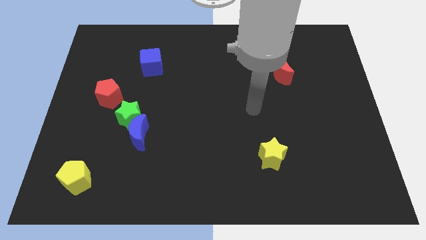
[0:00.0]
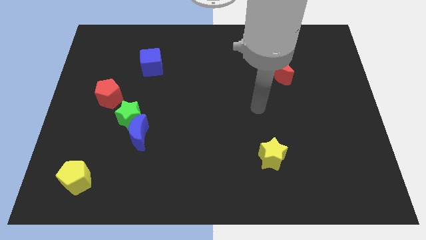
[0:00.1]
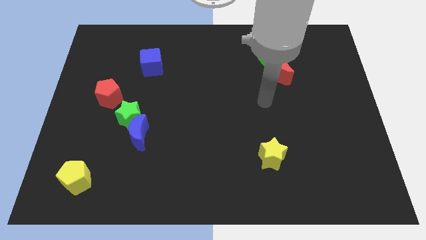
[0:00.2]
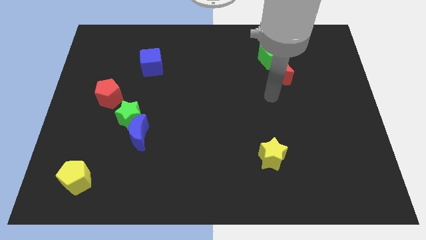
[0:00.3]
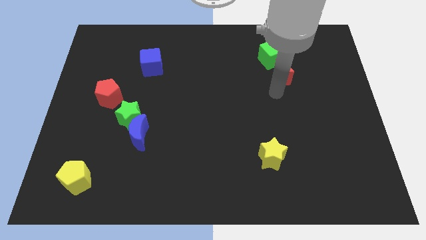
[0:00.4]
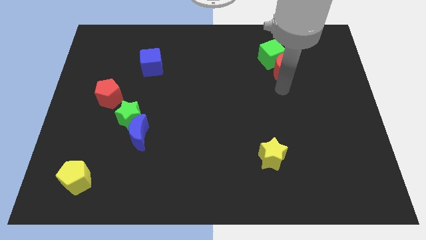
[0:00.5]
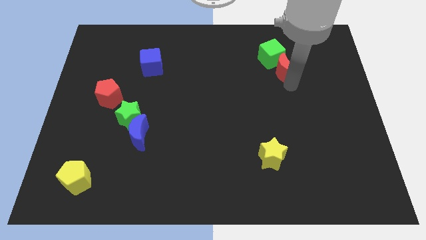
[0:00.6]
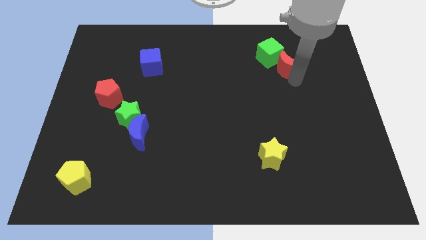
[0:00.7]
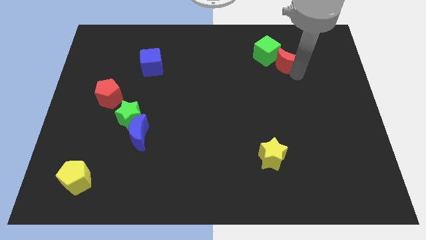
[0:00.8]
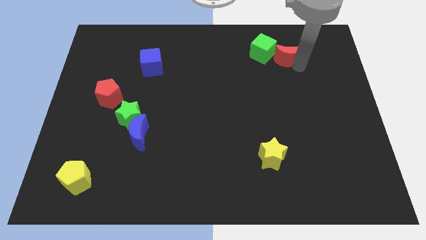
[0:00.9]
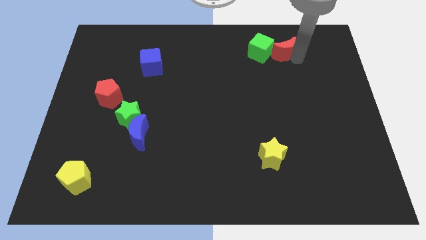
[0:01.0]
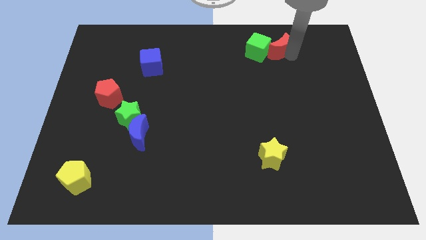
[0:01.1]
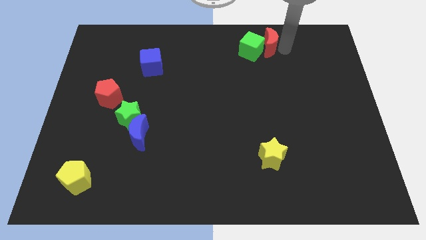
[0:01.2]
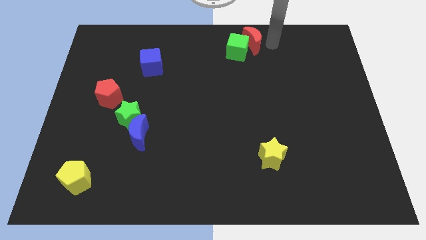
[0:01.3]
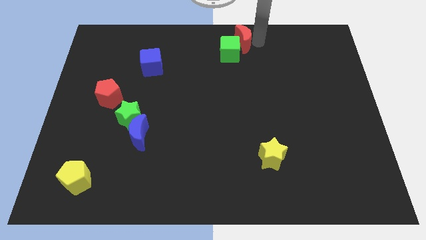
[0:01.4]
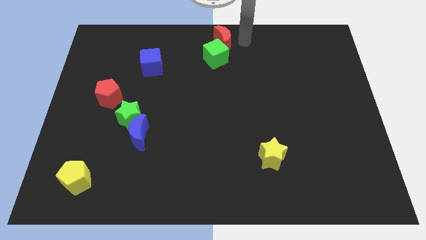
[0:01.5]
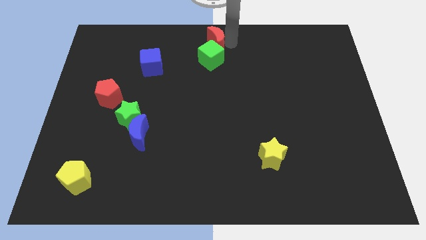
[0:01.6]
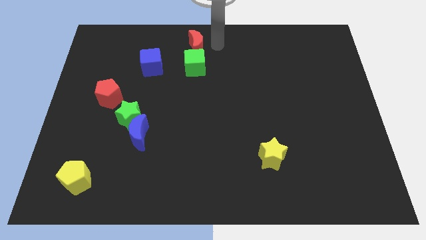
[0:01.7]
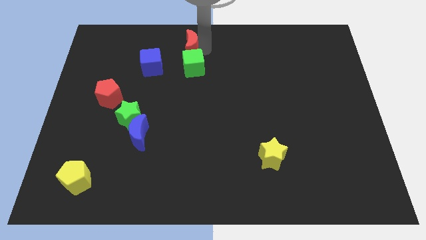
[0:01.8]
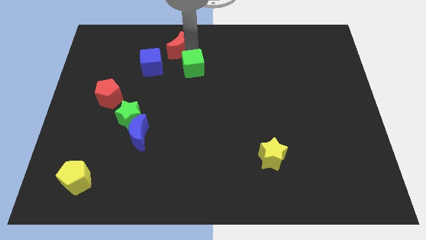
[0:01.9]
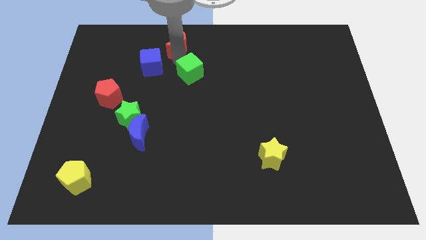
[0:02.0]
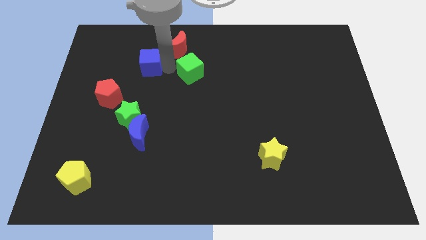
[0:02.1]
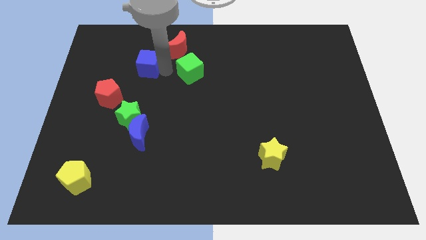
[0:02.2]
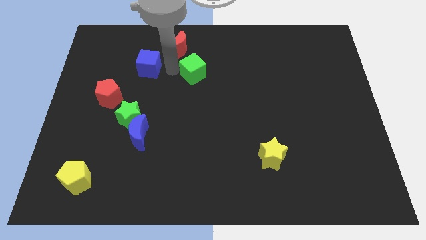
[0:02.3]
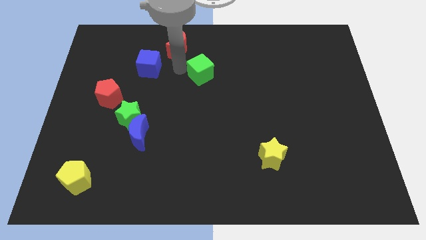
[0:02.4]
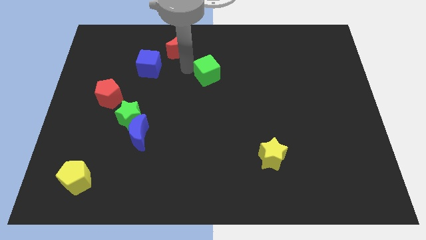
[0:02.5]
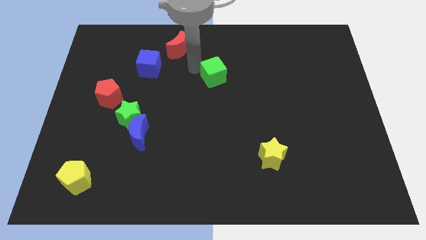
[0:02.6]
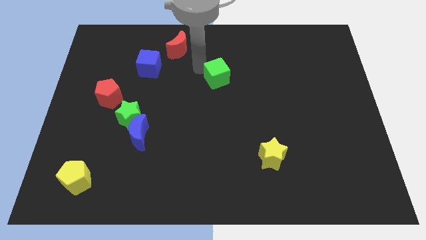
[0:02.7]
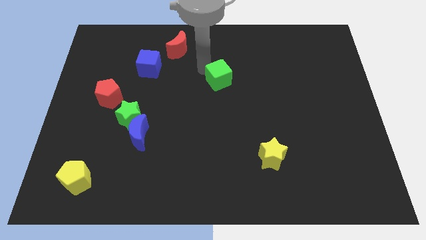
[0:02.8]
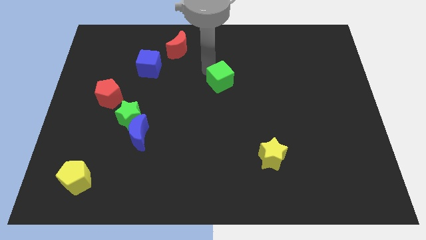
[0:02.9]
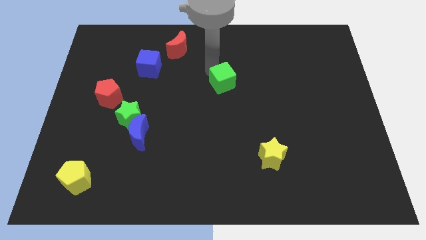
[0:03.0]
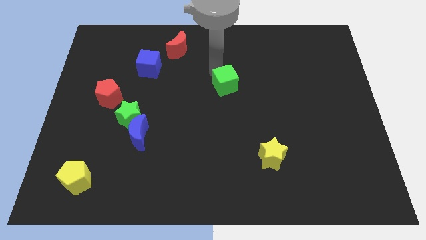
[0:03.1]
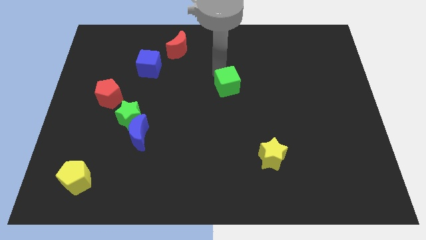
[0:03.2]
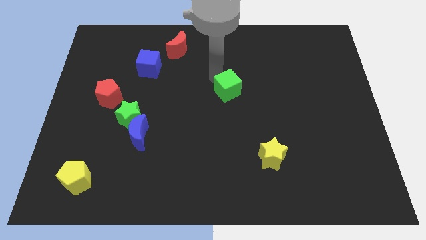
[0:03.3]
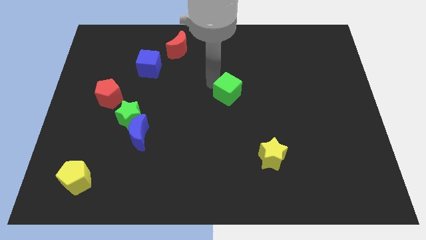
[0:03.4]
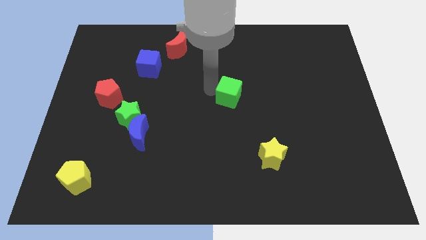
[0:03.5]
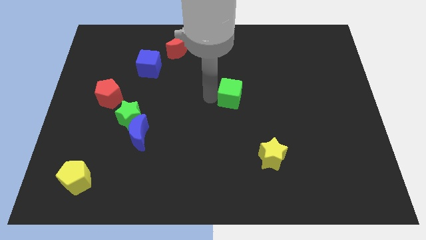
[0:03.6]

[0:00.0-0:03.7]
push the green cube down a bit

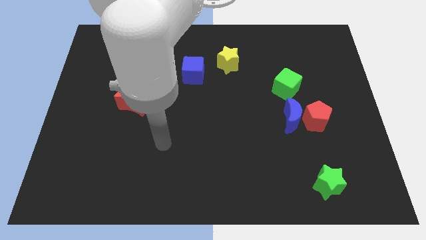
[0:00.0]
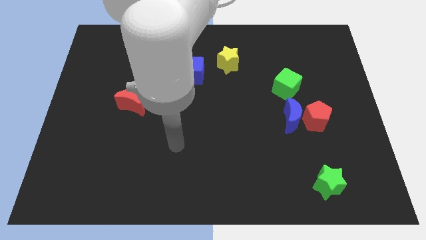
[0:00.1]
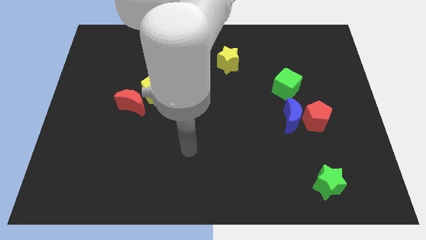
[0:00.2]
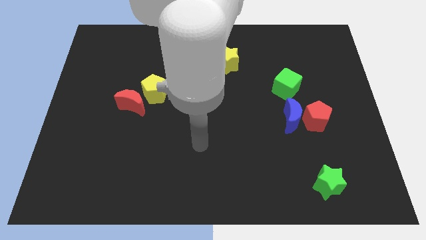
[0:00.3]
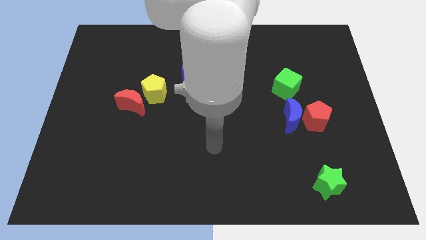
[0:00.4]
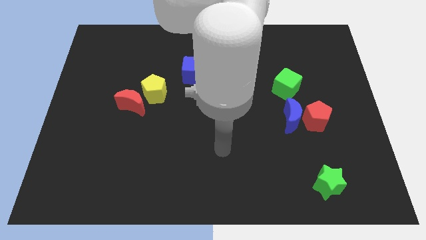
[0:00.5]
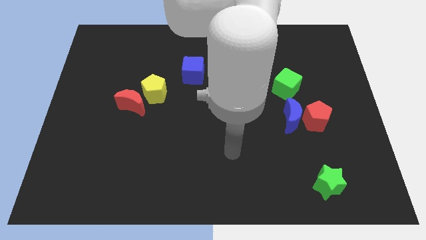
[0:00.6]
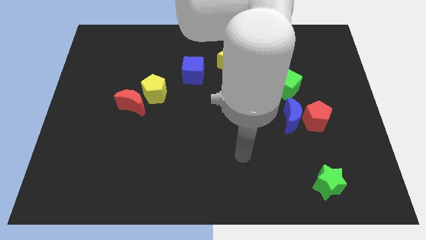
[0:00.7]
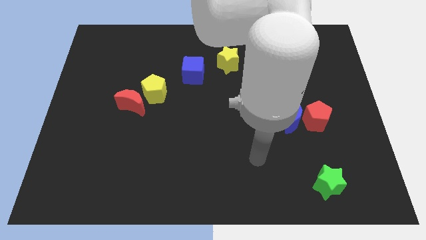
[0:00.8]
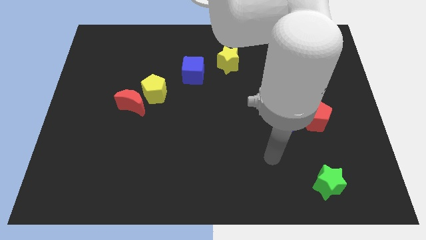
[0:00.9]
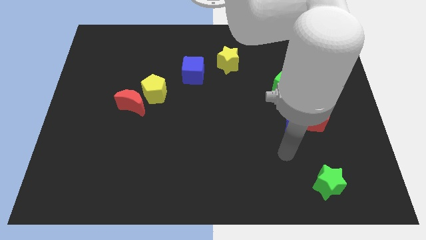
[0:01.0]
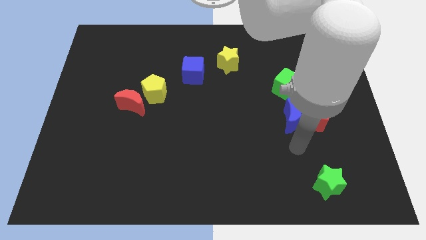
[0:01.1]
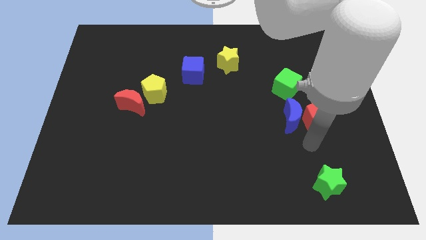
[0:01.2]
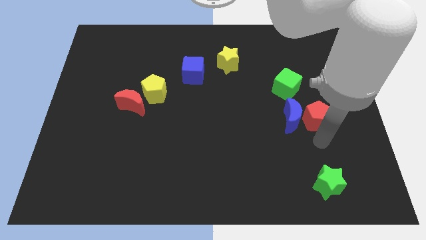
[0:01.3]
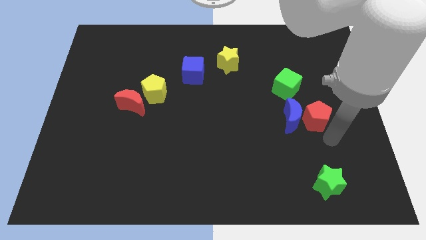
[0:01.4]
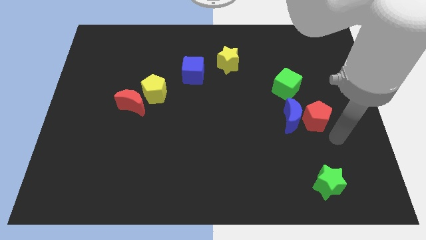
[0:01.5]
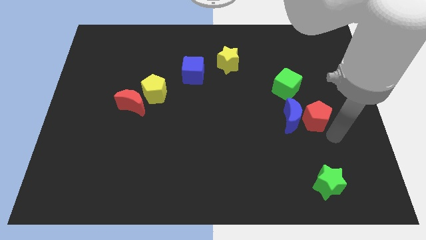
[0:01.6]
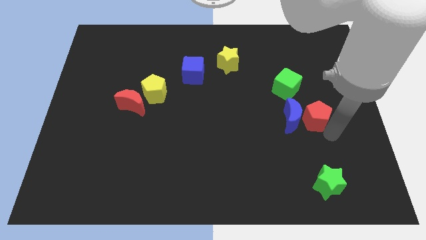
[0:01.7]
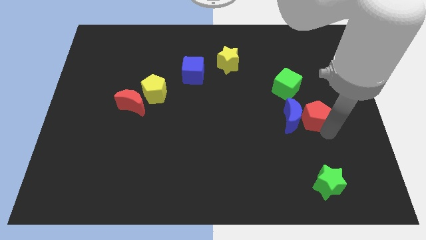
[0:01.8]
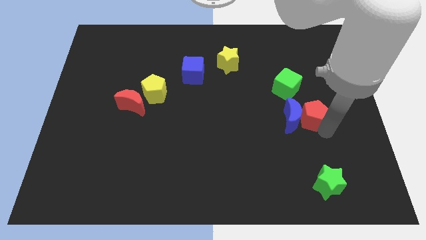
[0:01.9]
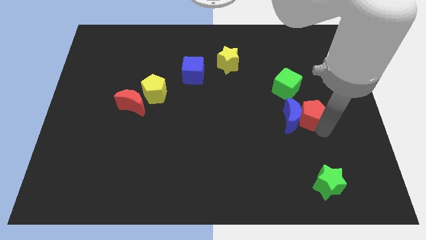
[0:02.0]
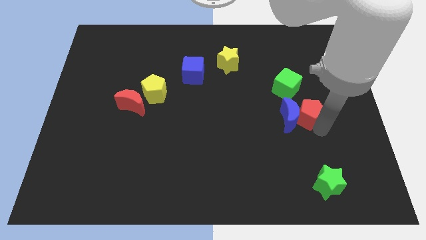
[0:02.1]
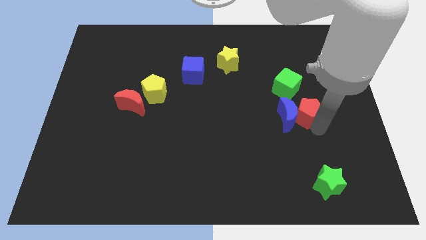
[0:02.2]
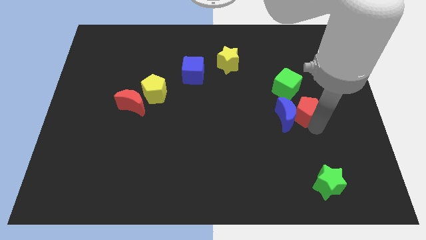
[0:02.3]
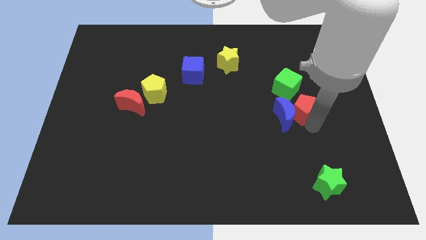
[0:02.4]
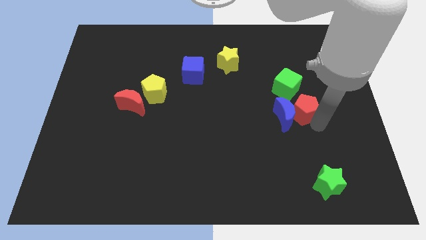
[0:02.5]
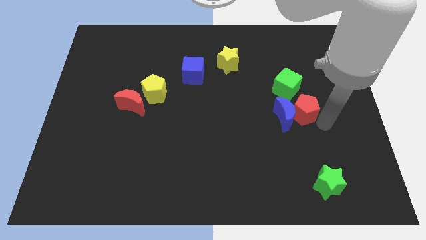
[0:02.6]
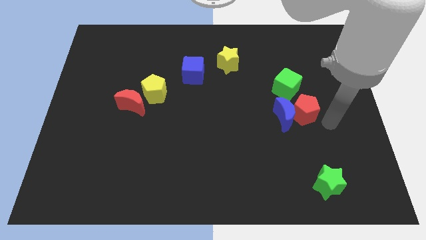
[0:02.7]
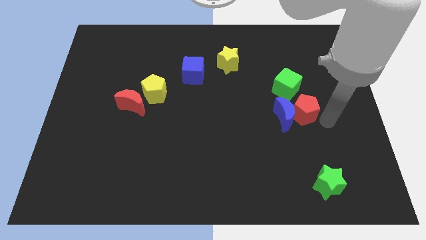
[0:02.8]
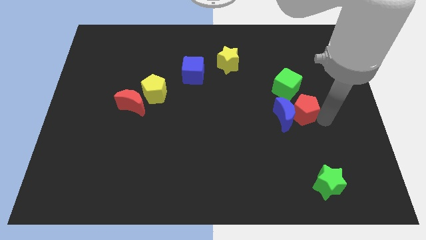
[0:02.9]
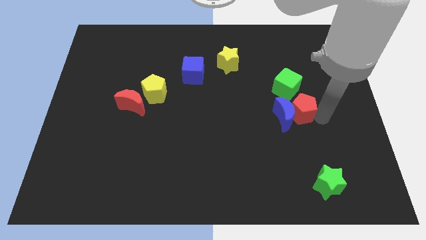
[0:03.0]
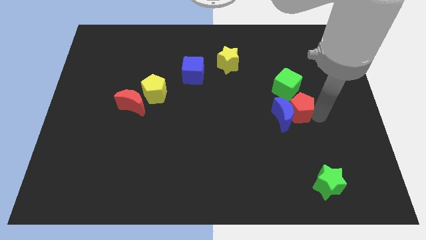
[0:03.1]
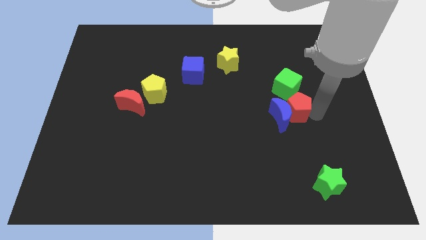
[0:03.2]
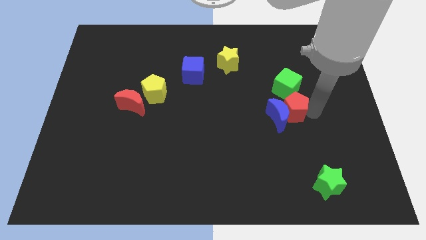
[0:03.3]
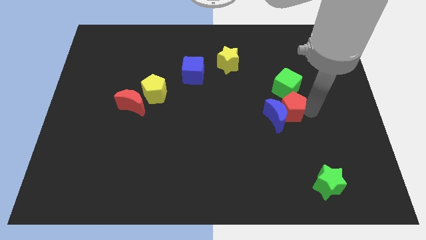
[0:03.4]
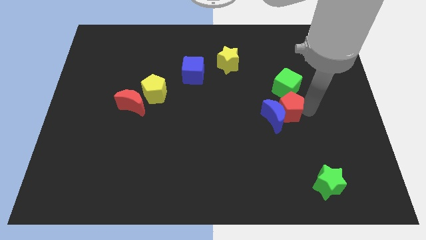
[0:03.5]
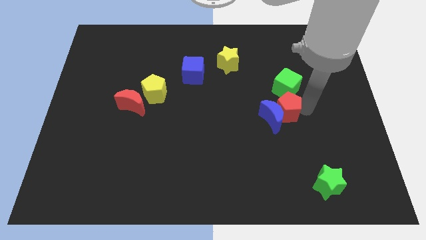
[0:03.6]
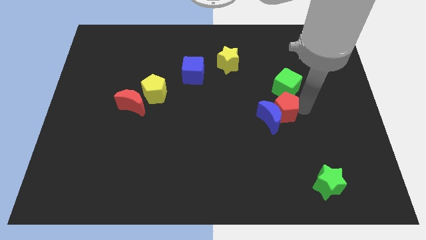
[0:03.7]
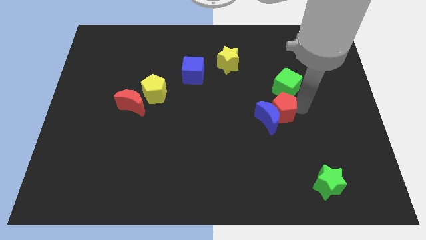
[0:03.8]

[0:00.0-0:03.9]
push the red pentagon a little upwards and then to the left

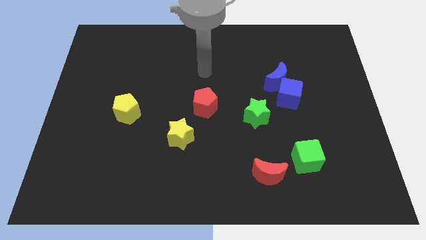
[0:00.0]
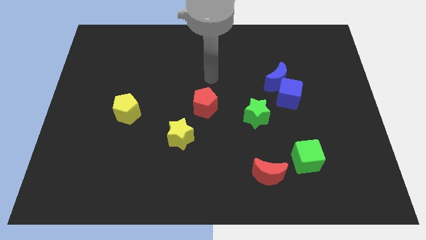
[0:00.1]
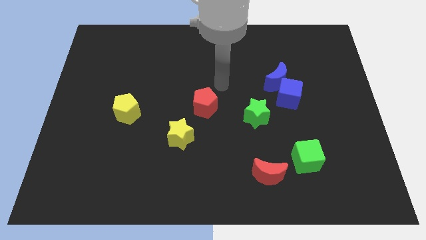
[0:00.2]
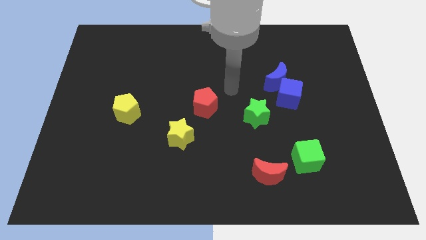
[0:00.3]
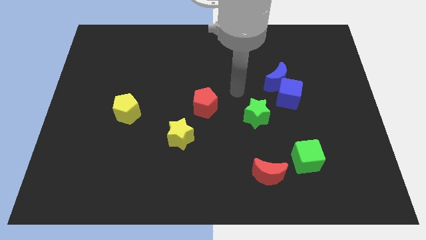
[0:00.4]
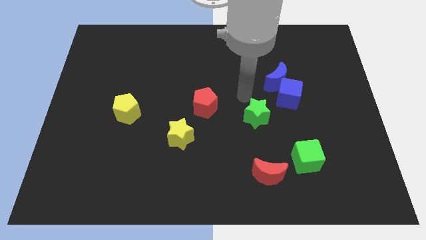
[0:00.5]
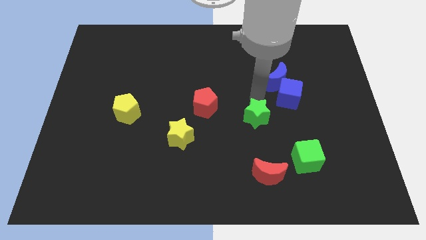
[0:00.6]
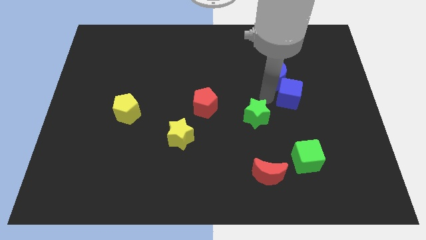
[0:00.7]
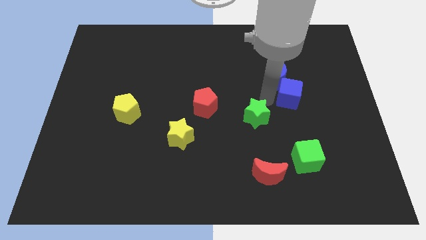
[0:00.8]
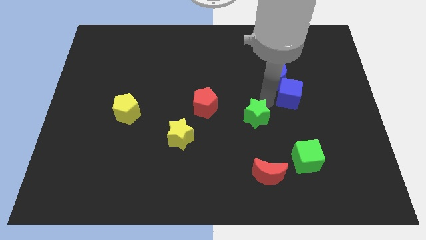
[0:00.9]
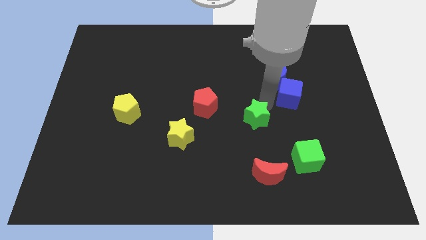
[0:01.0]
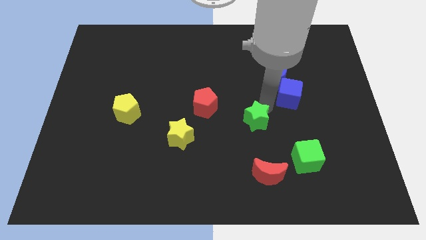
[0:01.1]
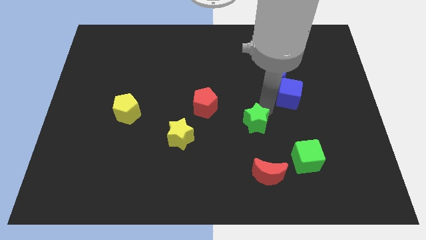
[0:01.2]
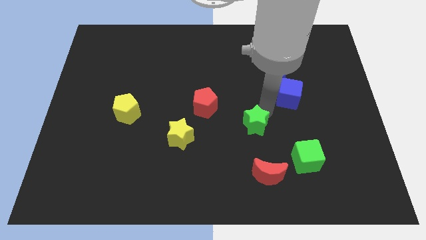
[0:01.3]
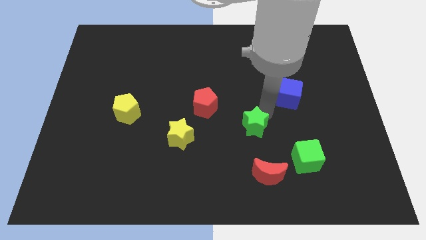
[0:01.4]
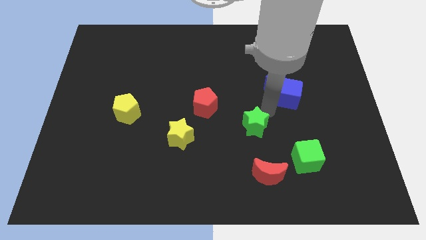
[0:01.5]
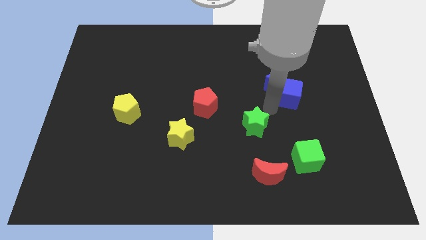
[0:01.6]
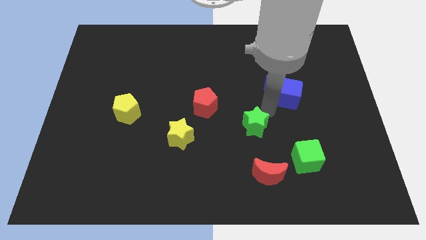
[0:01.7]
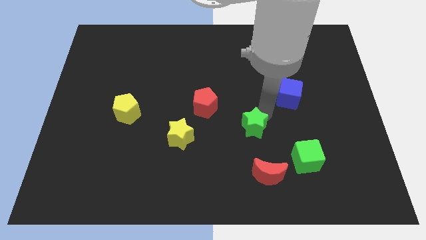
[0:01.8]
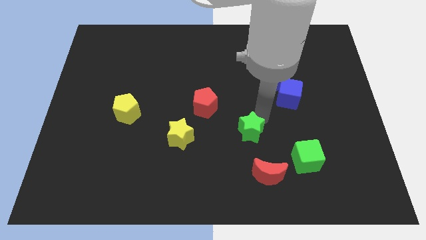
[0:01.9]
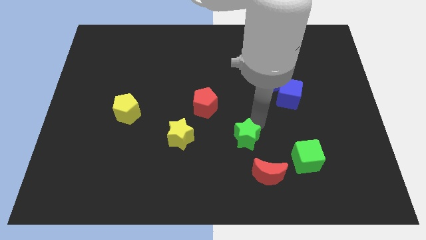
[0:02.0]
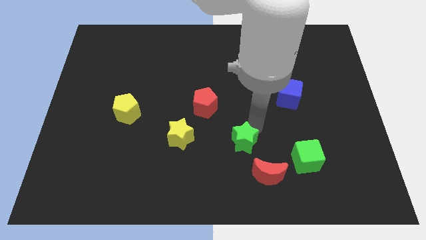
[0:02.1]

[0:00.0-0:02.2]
slightly slide the green star downwards and then to the left
